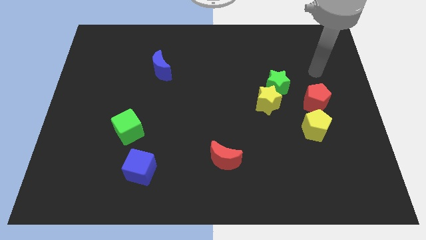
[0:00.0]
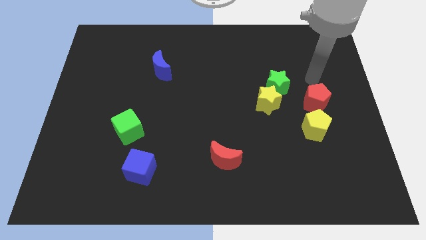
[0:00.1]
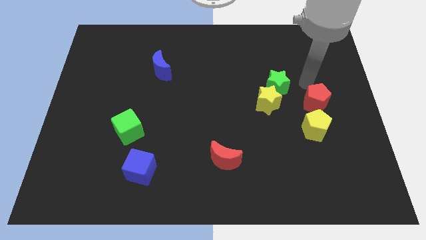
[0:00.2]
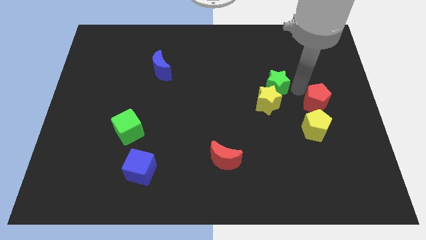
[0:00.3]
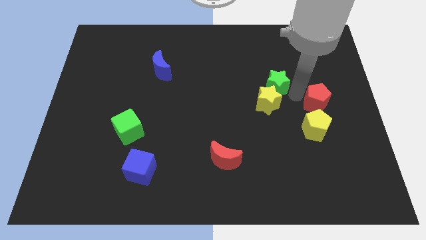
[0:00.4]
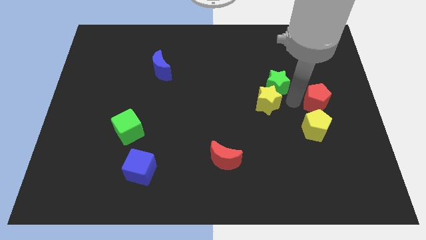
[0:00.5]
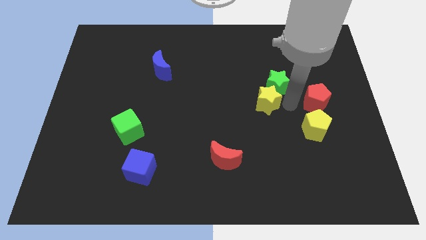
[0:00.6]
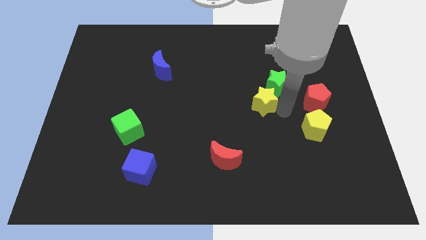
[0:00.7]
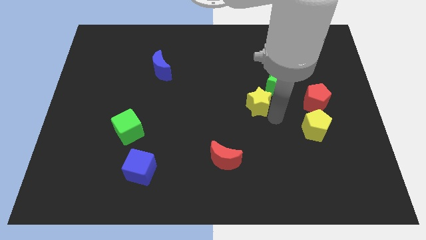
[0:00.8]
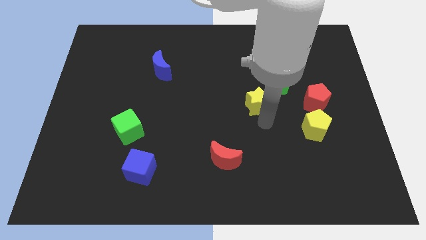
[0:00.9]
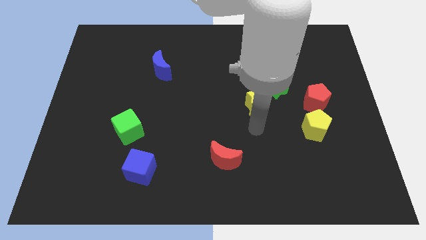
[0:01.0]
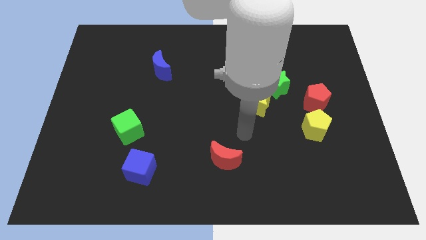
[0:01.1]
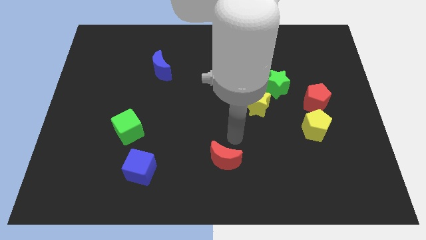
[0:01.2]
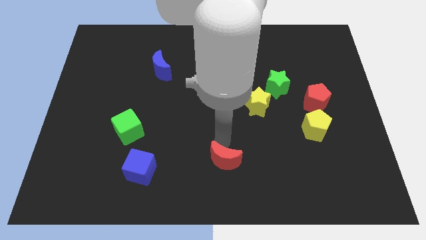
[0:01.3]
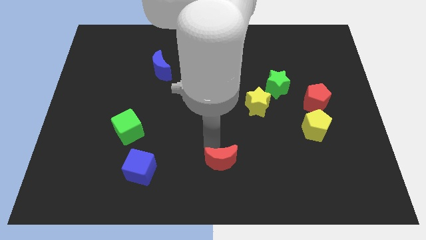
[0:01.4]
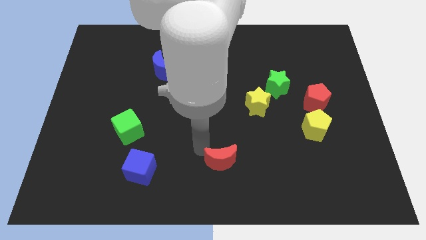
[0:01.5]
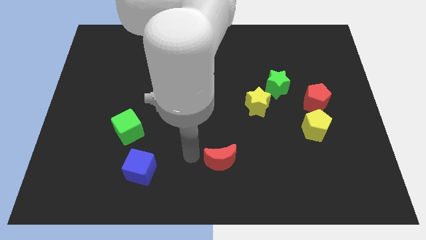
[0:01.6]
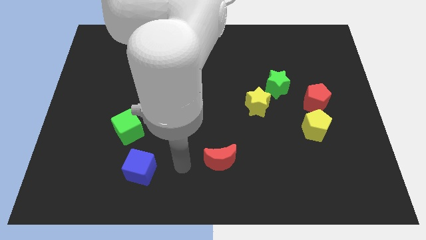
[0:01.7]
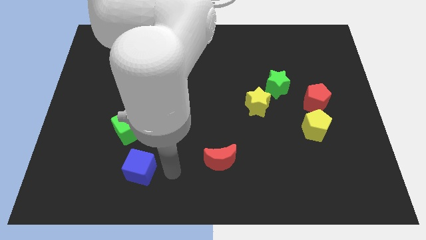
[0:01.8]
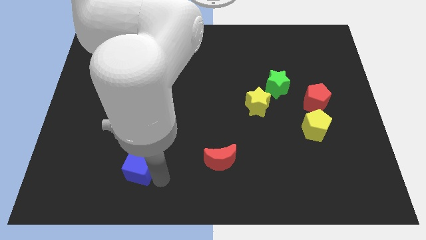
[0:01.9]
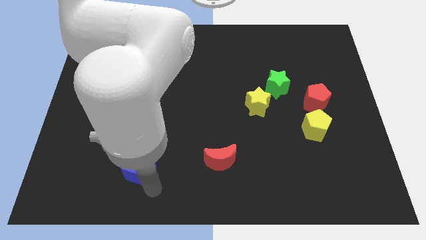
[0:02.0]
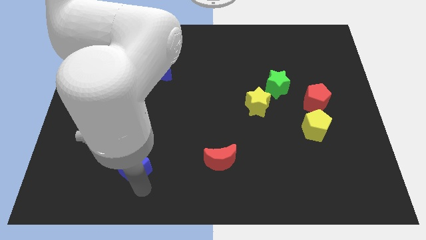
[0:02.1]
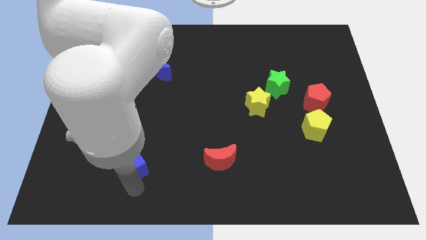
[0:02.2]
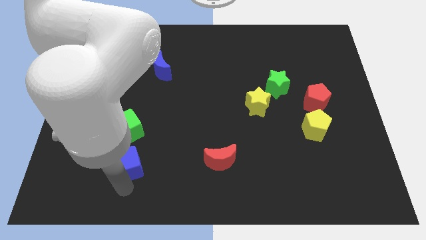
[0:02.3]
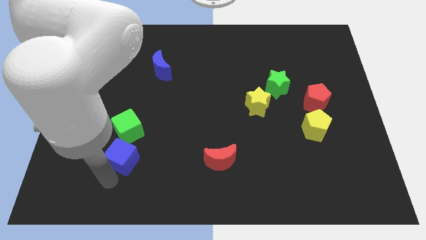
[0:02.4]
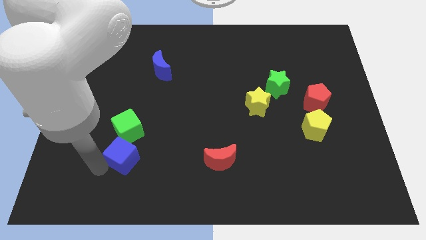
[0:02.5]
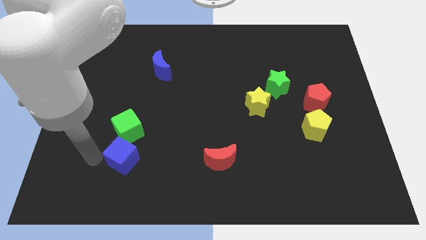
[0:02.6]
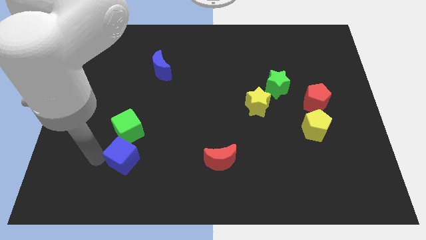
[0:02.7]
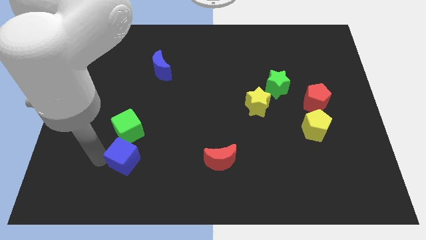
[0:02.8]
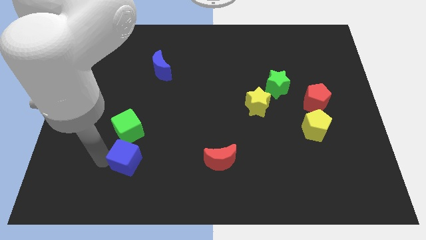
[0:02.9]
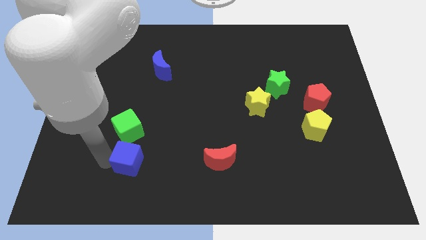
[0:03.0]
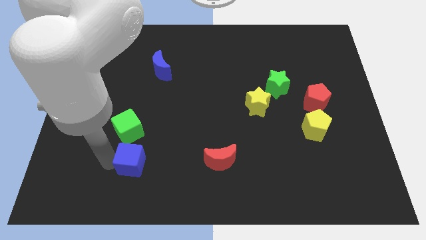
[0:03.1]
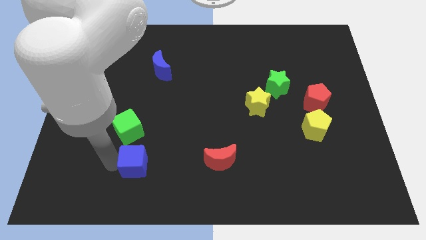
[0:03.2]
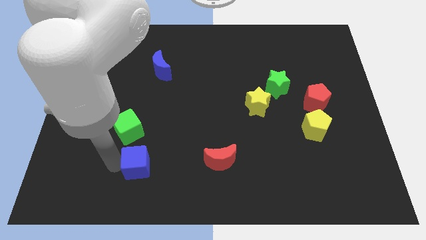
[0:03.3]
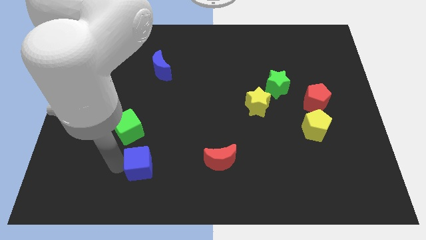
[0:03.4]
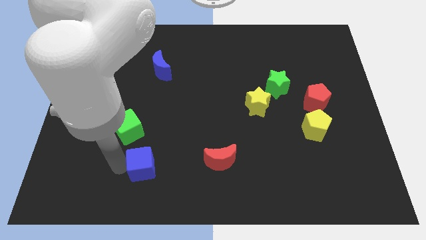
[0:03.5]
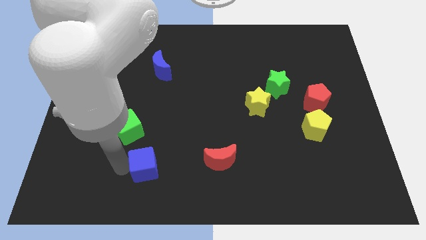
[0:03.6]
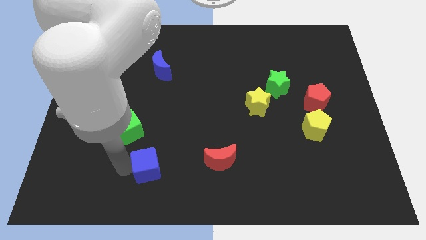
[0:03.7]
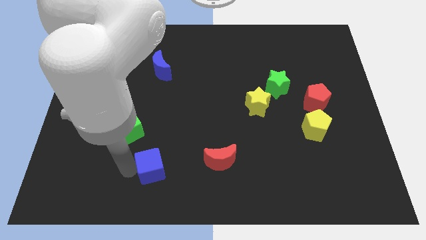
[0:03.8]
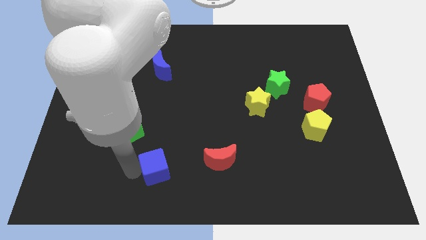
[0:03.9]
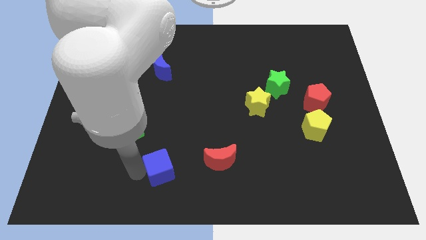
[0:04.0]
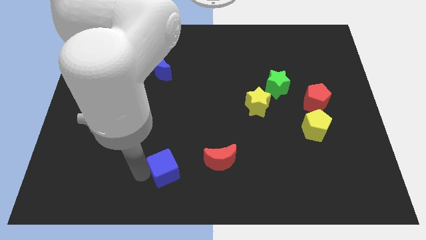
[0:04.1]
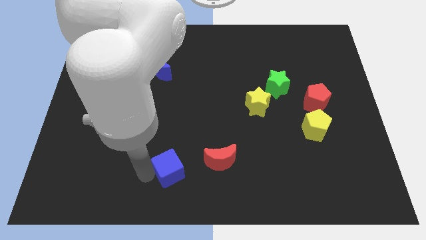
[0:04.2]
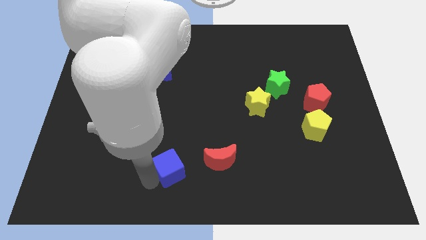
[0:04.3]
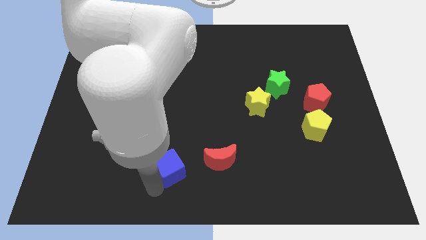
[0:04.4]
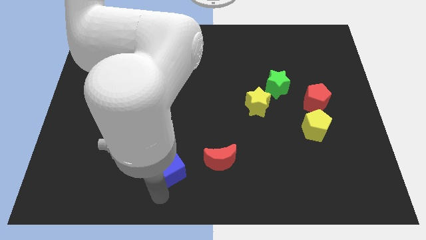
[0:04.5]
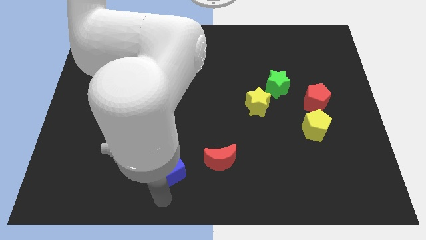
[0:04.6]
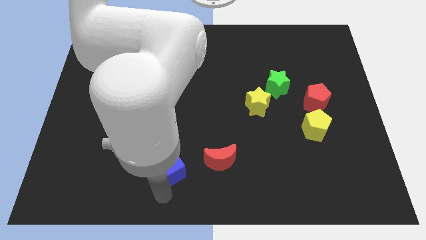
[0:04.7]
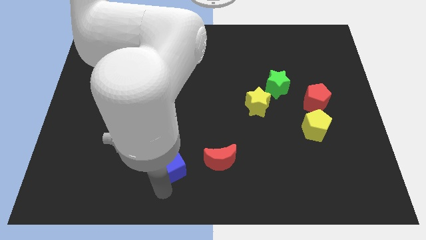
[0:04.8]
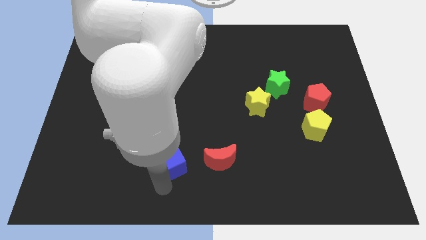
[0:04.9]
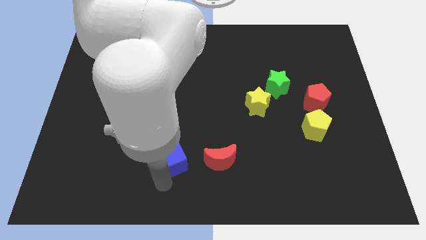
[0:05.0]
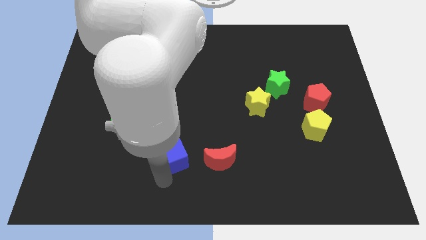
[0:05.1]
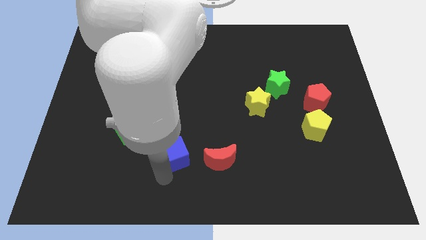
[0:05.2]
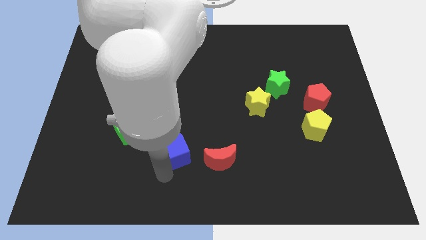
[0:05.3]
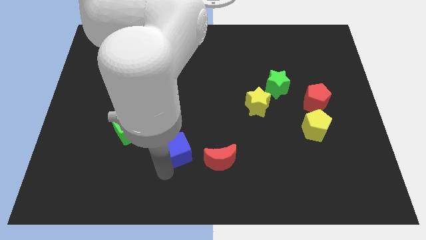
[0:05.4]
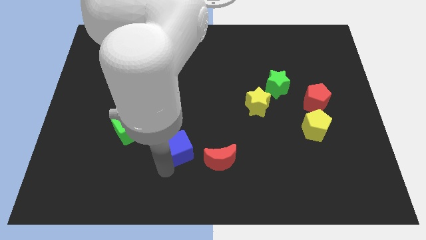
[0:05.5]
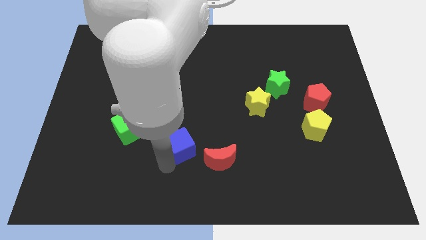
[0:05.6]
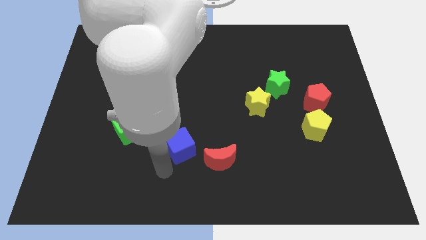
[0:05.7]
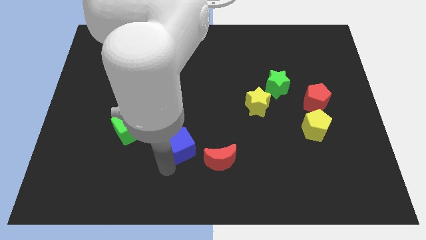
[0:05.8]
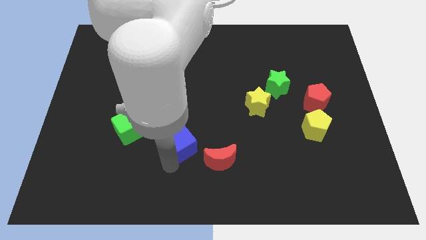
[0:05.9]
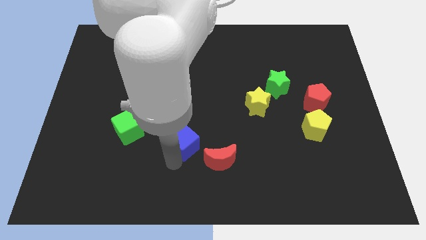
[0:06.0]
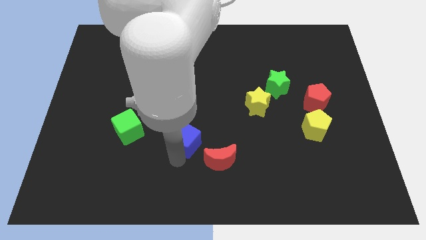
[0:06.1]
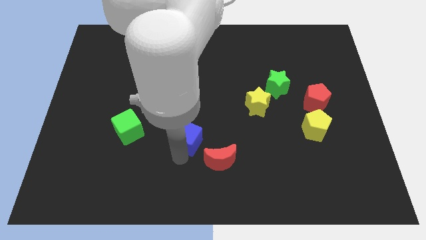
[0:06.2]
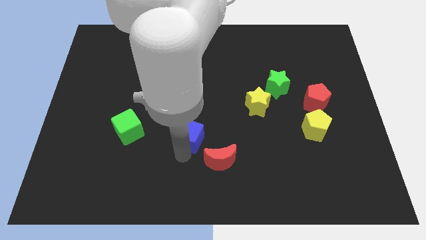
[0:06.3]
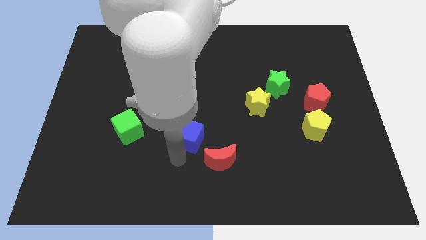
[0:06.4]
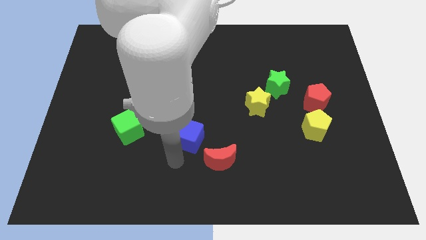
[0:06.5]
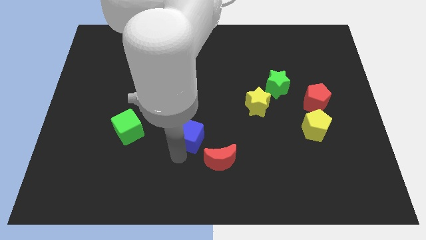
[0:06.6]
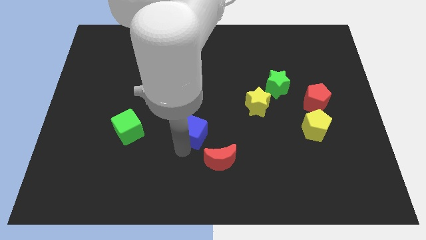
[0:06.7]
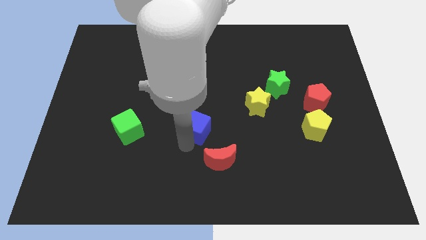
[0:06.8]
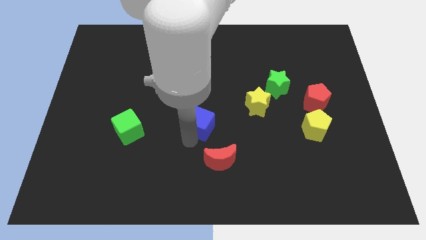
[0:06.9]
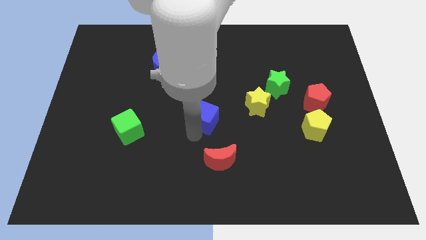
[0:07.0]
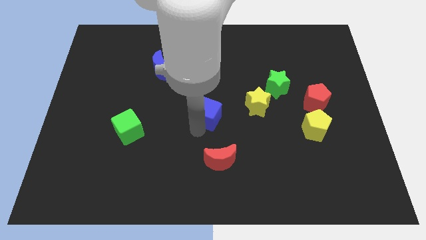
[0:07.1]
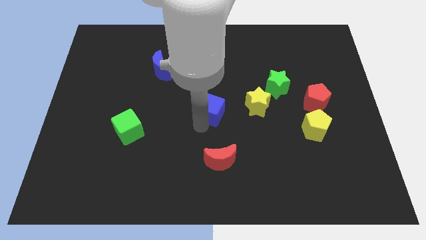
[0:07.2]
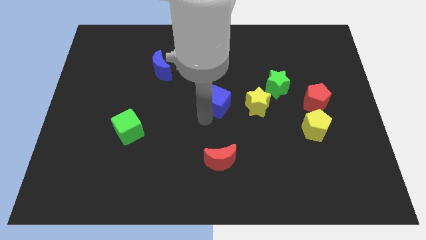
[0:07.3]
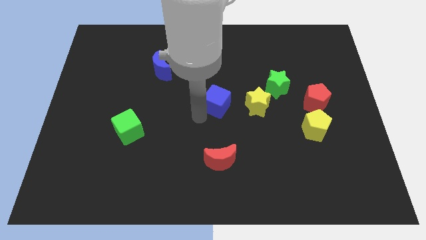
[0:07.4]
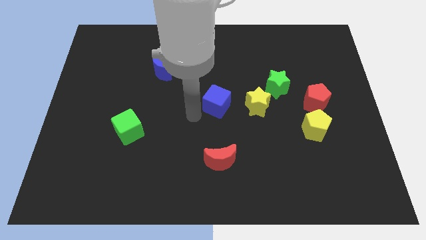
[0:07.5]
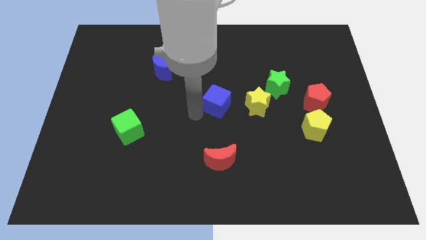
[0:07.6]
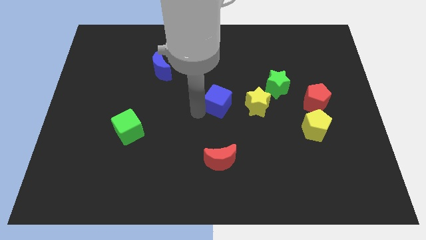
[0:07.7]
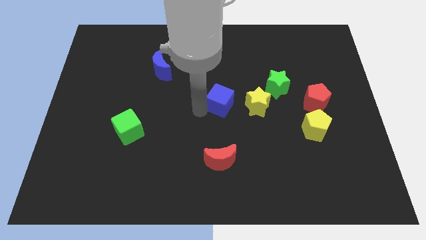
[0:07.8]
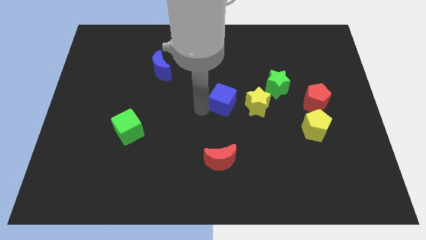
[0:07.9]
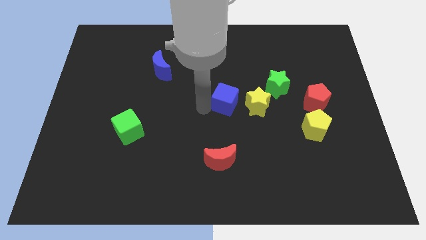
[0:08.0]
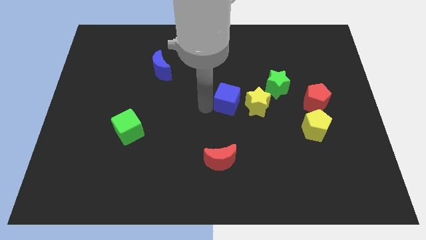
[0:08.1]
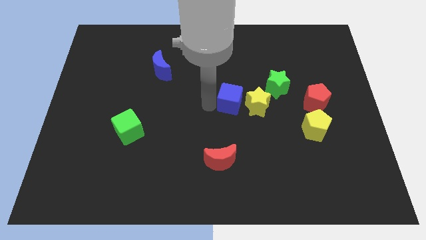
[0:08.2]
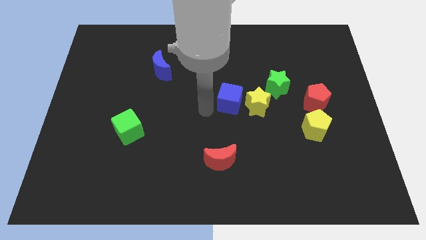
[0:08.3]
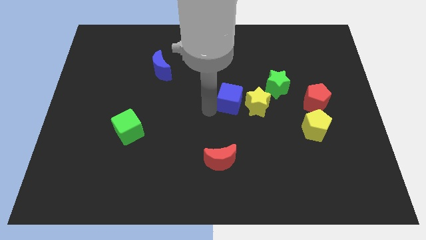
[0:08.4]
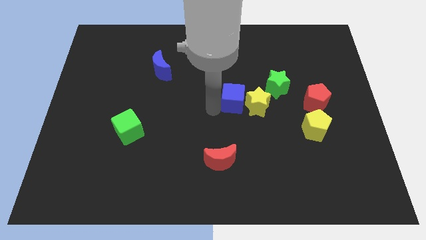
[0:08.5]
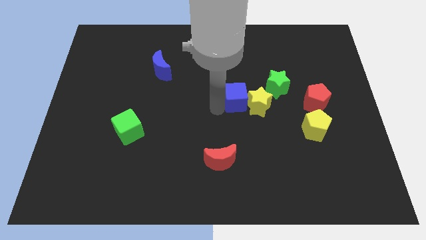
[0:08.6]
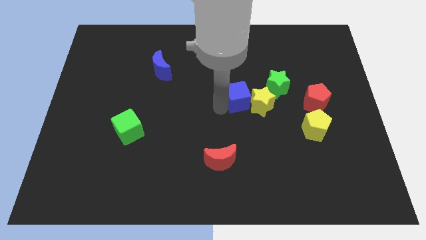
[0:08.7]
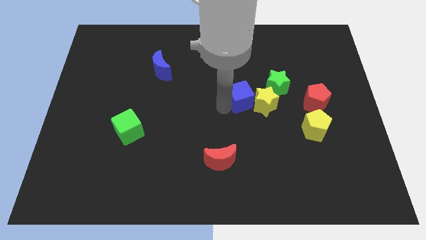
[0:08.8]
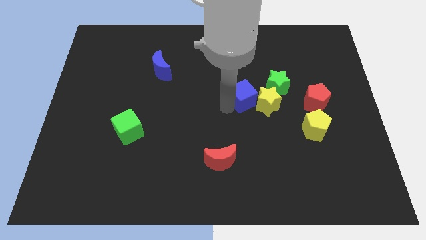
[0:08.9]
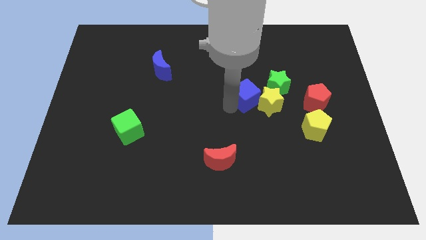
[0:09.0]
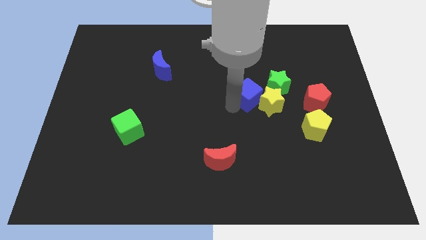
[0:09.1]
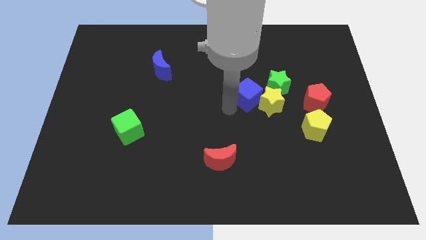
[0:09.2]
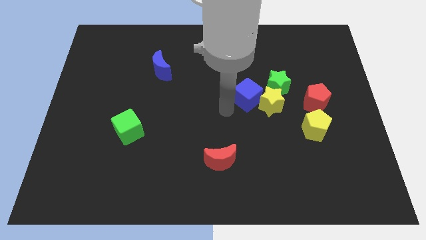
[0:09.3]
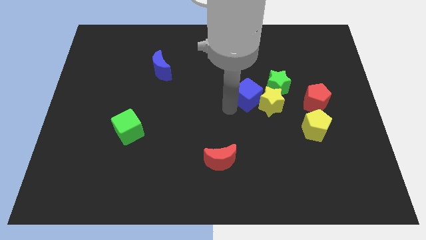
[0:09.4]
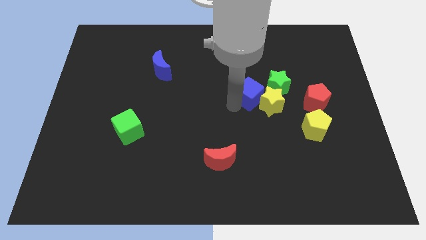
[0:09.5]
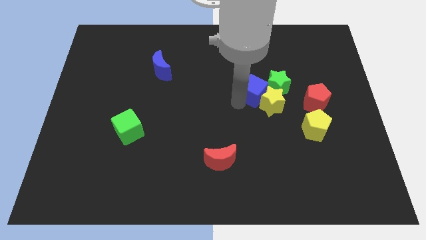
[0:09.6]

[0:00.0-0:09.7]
push the blue cube towards the green star
